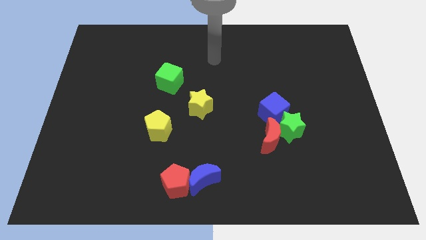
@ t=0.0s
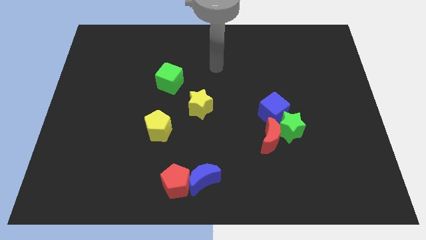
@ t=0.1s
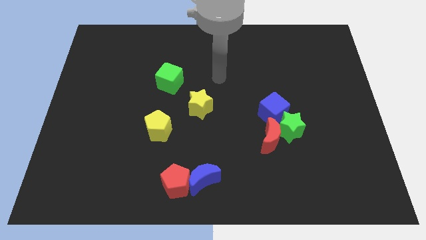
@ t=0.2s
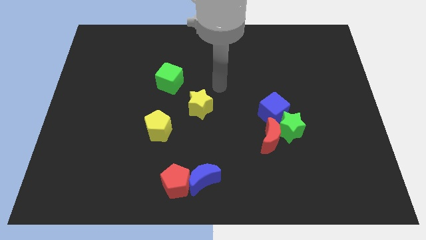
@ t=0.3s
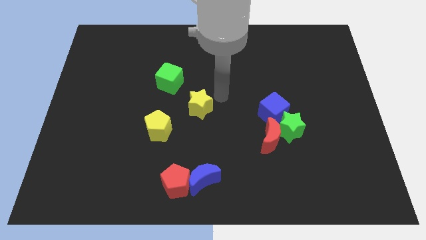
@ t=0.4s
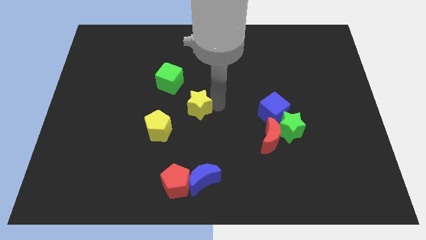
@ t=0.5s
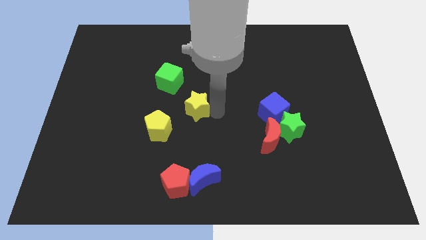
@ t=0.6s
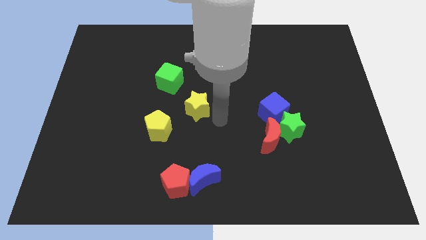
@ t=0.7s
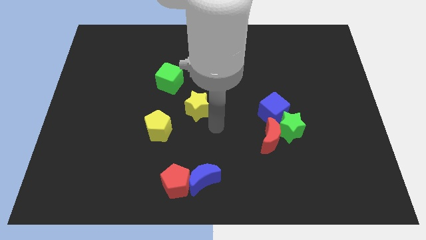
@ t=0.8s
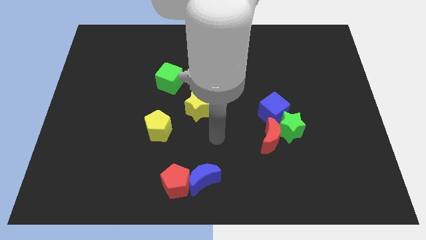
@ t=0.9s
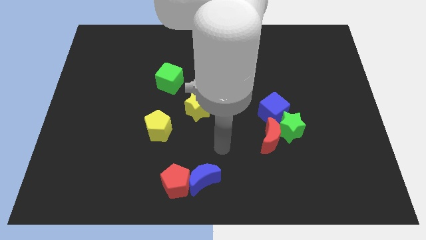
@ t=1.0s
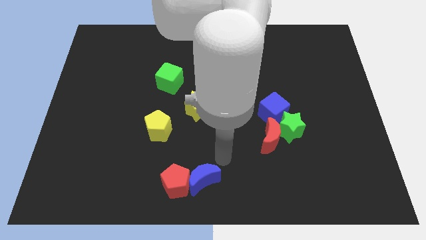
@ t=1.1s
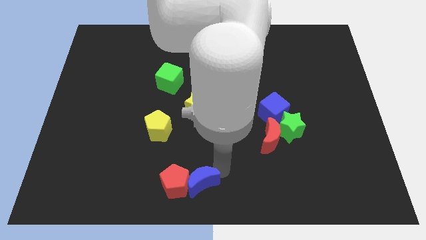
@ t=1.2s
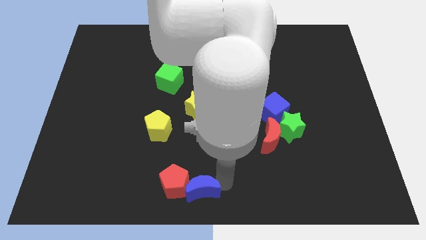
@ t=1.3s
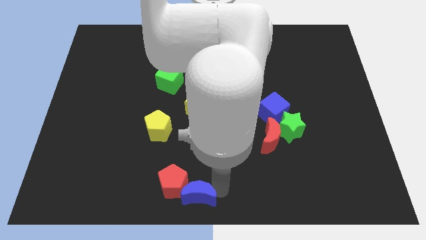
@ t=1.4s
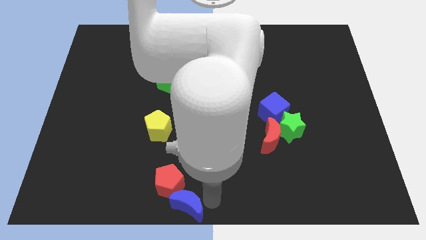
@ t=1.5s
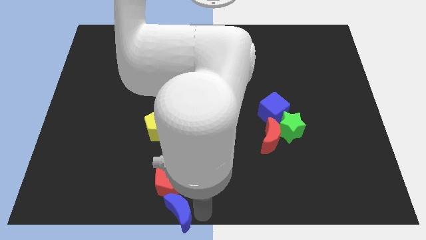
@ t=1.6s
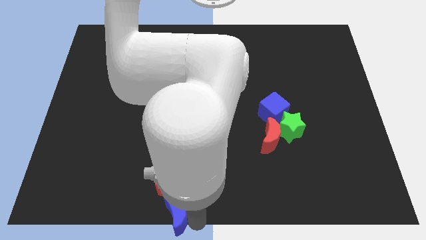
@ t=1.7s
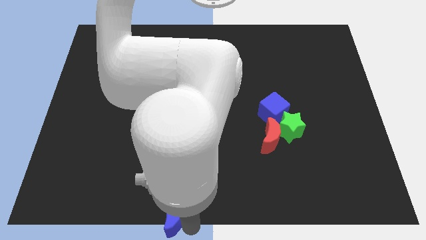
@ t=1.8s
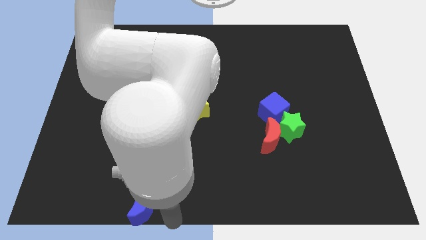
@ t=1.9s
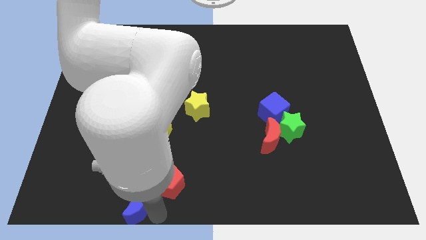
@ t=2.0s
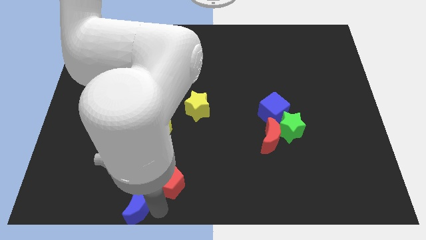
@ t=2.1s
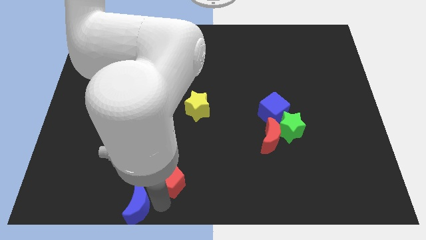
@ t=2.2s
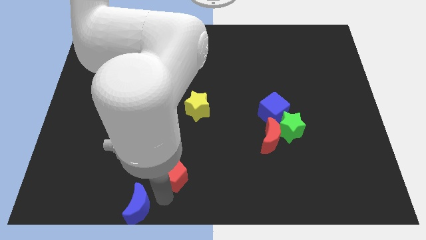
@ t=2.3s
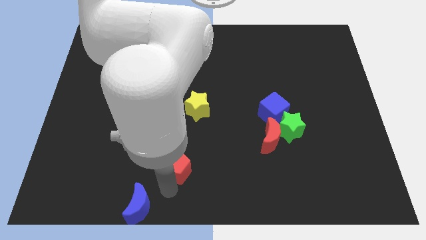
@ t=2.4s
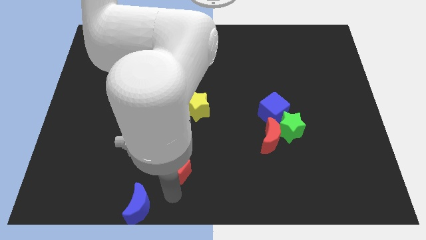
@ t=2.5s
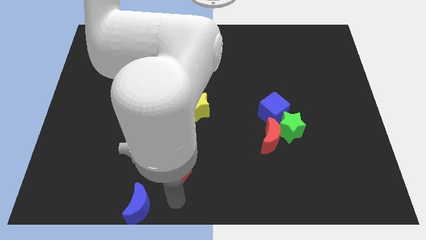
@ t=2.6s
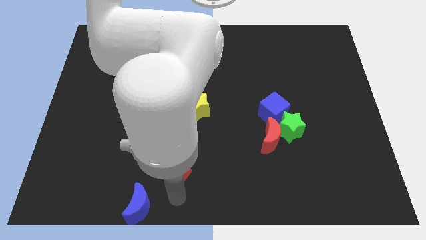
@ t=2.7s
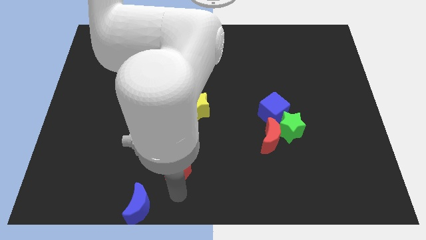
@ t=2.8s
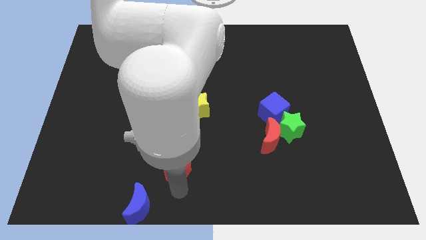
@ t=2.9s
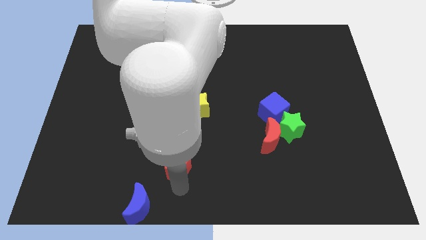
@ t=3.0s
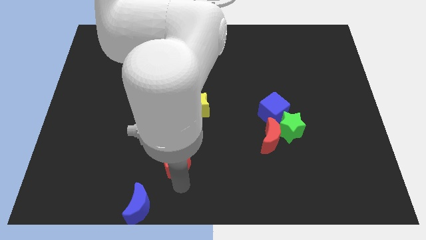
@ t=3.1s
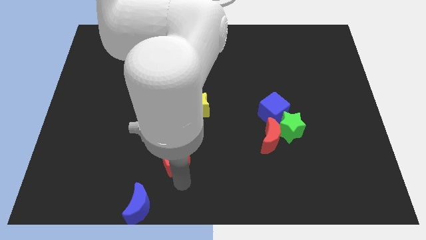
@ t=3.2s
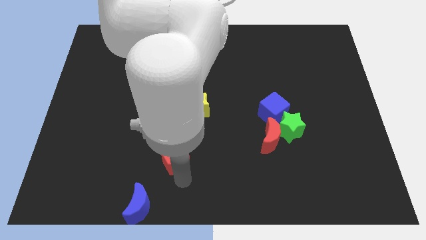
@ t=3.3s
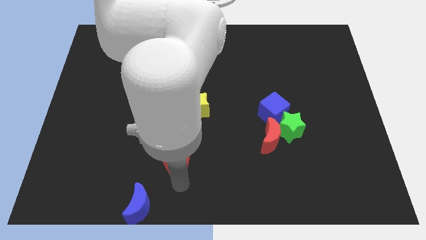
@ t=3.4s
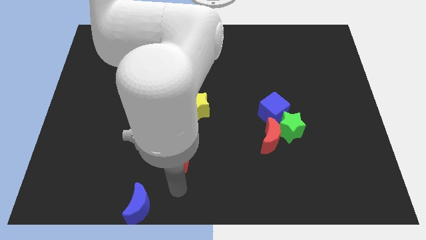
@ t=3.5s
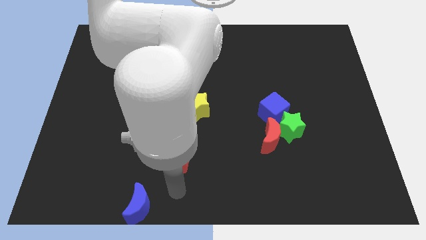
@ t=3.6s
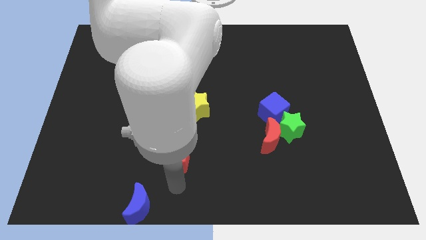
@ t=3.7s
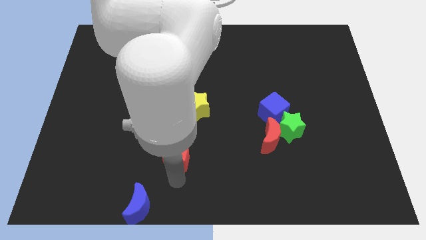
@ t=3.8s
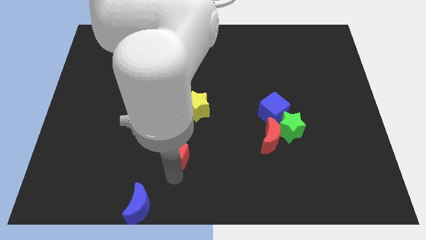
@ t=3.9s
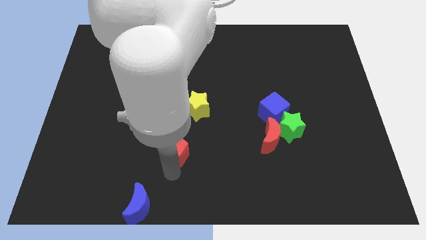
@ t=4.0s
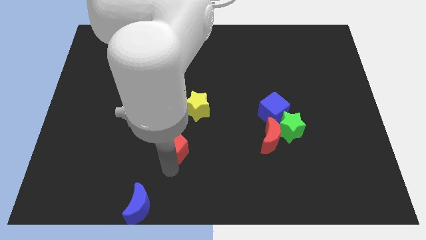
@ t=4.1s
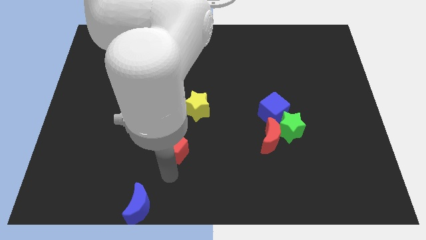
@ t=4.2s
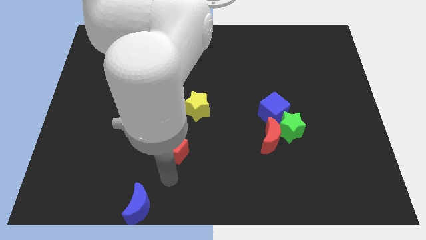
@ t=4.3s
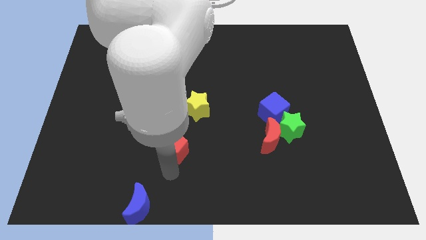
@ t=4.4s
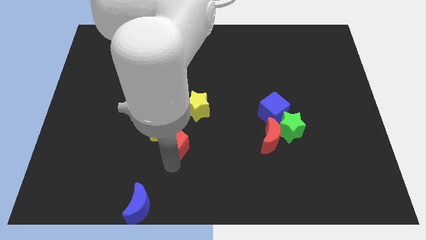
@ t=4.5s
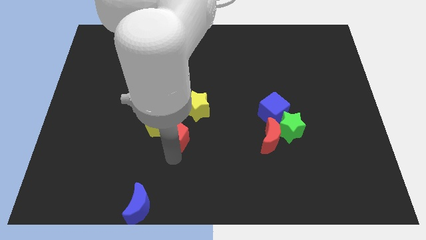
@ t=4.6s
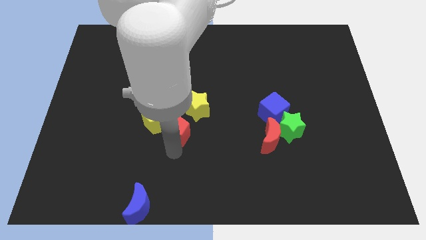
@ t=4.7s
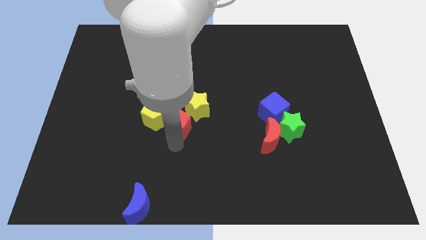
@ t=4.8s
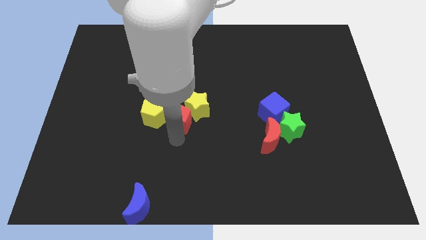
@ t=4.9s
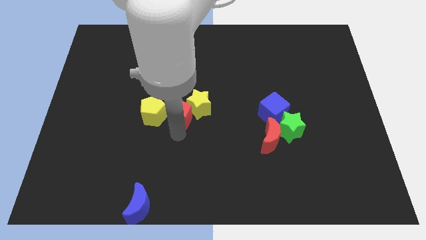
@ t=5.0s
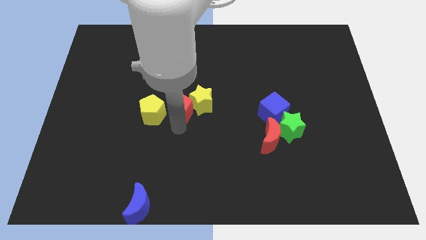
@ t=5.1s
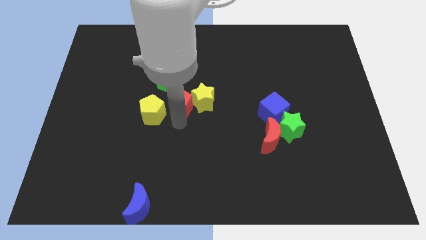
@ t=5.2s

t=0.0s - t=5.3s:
move the red pentagon upwards

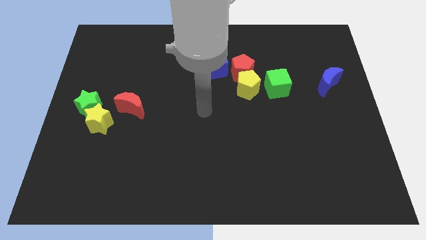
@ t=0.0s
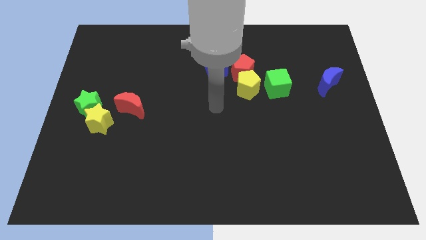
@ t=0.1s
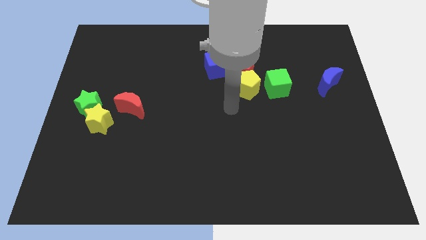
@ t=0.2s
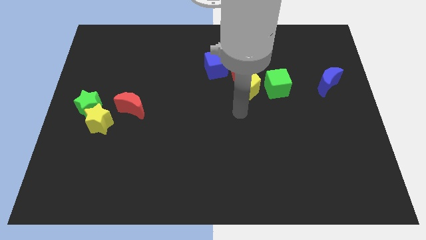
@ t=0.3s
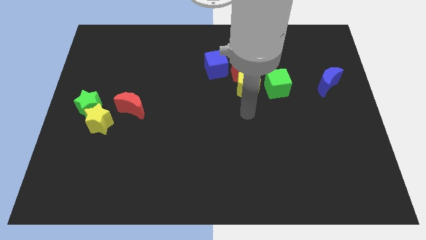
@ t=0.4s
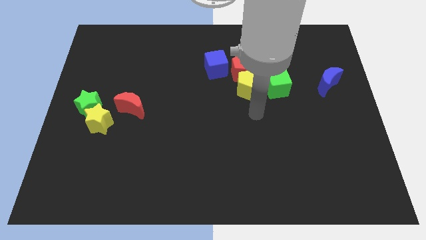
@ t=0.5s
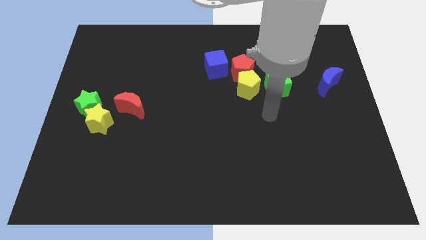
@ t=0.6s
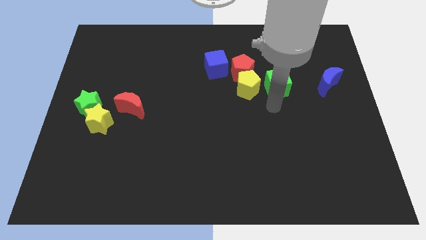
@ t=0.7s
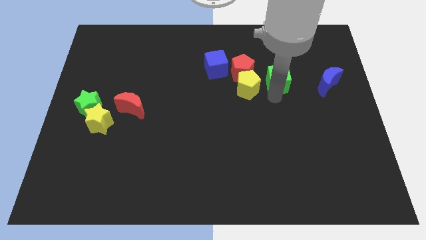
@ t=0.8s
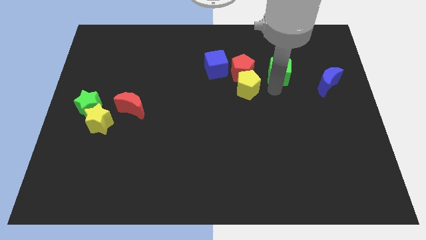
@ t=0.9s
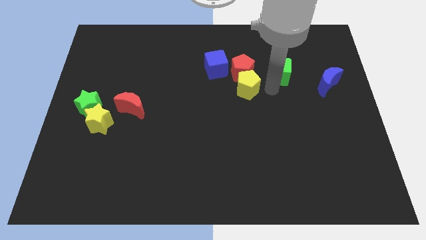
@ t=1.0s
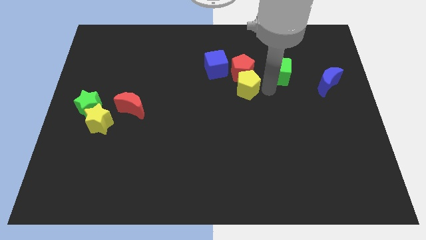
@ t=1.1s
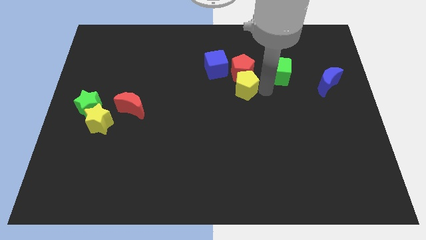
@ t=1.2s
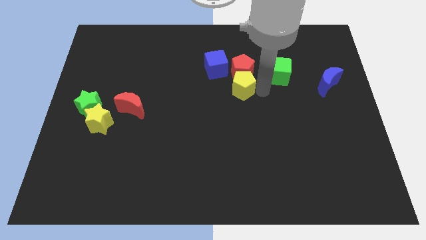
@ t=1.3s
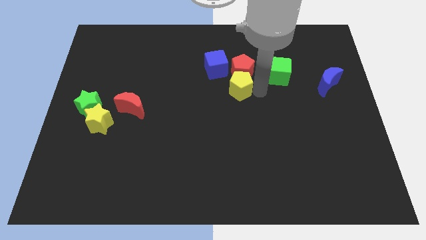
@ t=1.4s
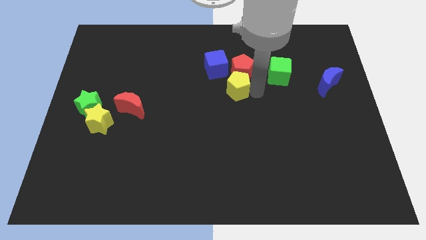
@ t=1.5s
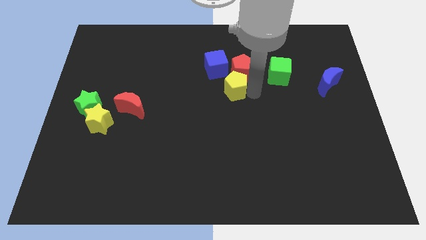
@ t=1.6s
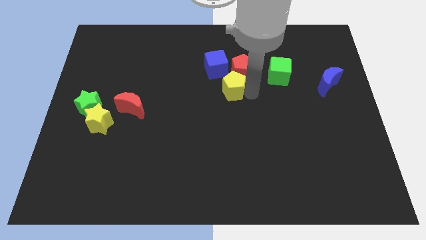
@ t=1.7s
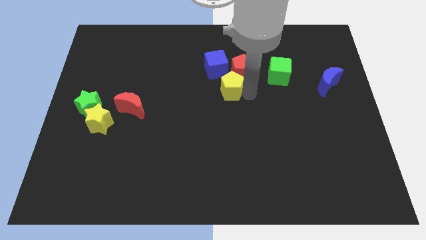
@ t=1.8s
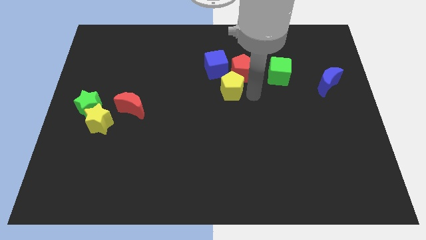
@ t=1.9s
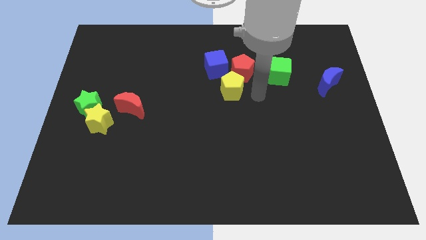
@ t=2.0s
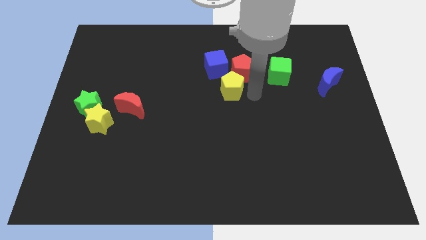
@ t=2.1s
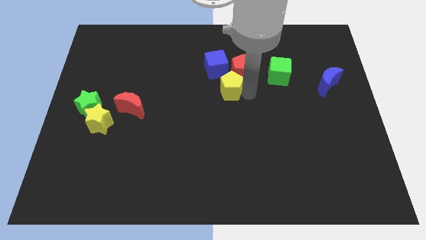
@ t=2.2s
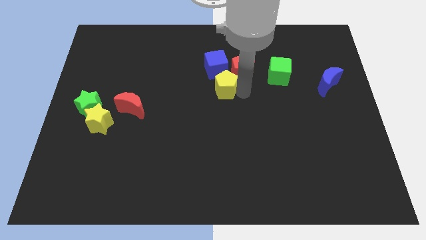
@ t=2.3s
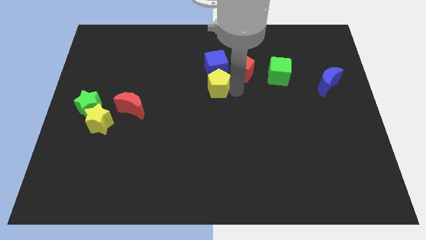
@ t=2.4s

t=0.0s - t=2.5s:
move the yellow pentagon a bit left
